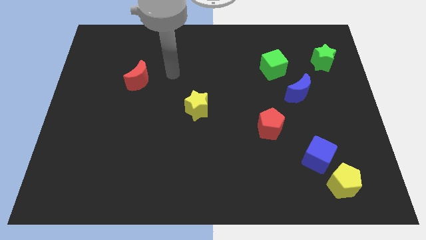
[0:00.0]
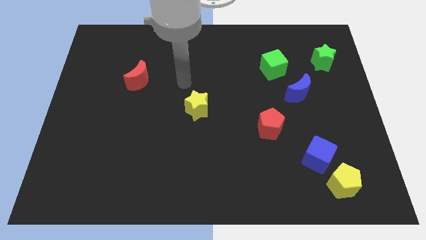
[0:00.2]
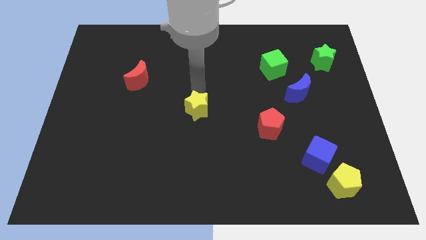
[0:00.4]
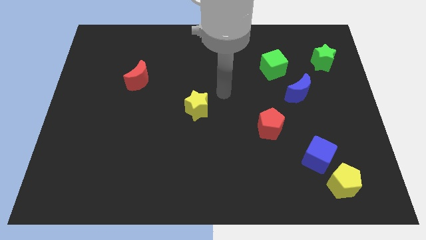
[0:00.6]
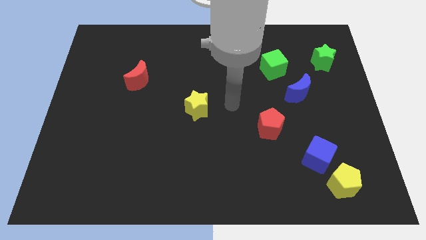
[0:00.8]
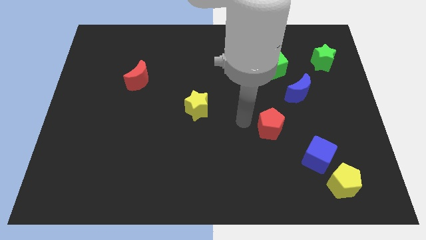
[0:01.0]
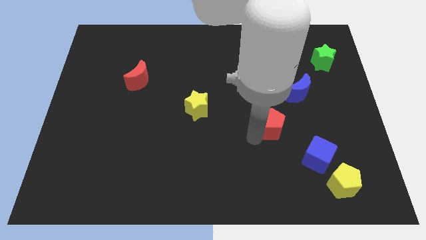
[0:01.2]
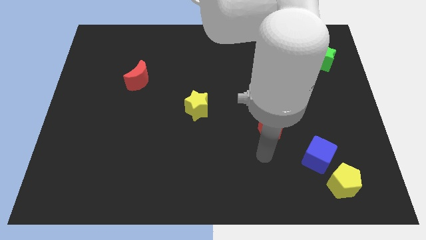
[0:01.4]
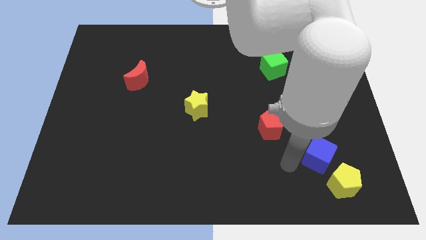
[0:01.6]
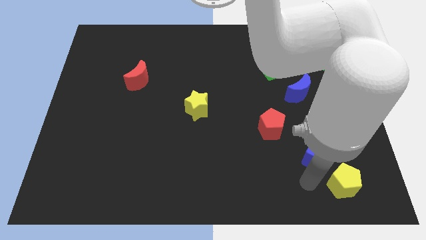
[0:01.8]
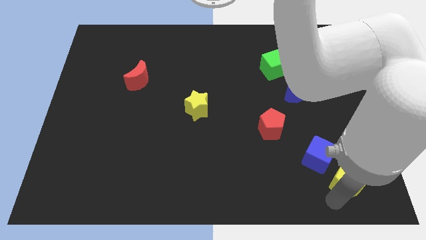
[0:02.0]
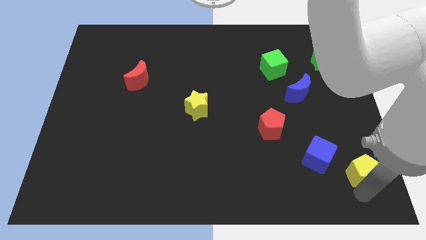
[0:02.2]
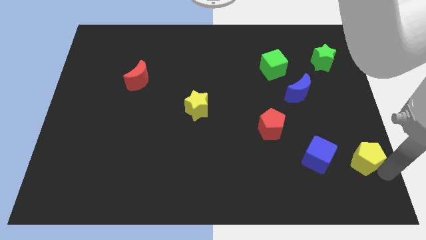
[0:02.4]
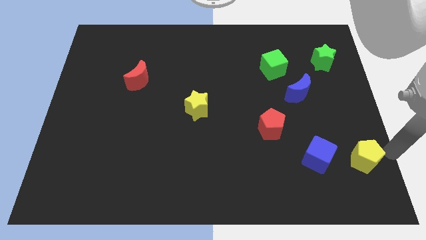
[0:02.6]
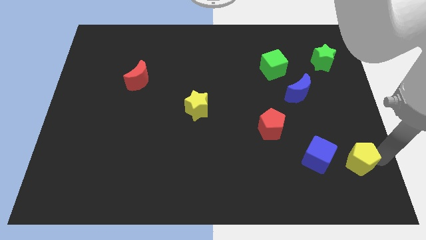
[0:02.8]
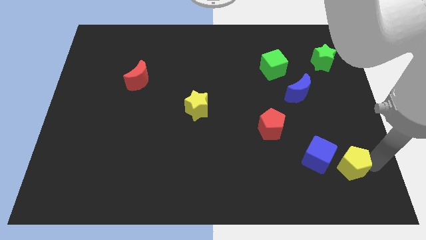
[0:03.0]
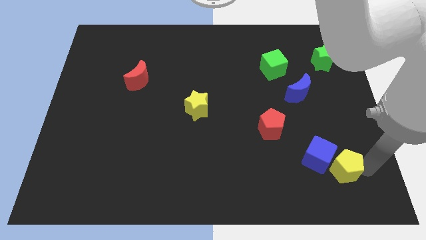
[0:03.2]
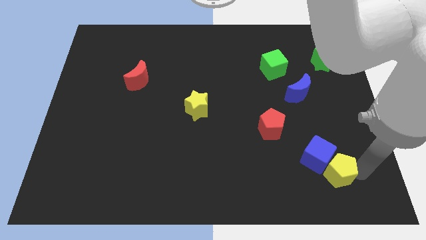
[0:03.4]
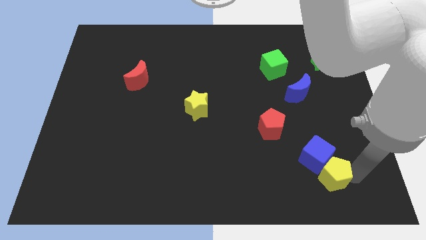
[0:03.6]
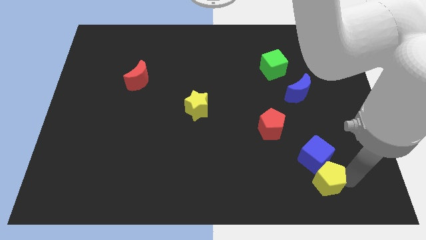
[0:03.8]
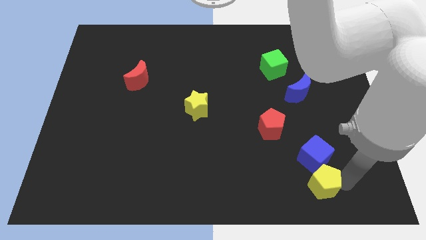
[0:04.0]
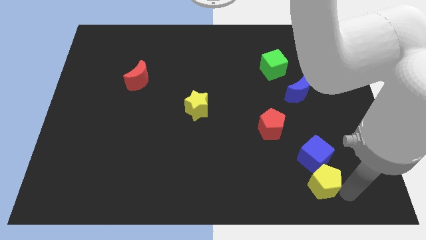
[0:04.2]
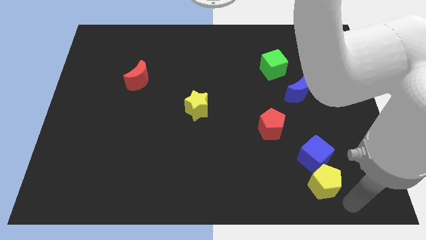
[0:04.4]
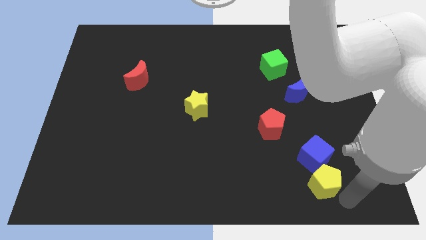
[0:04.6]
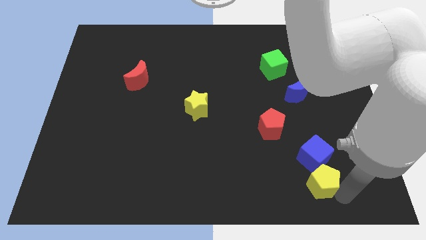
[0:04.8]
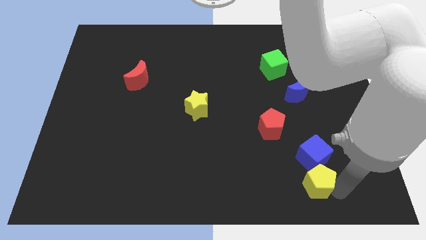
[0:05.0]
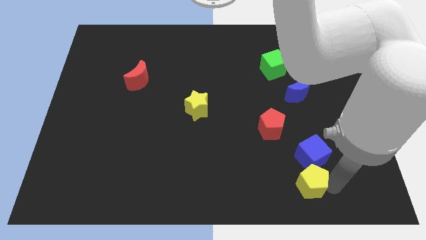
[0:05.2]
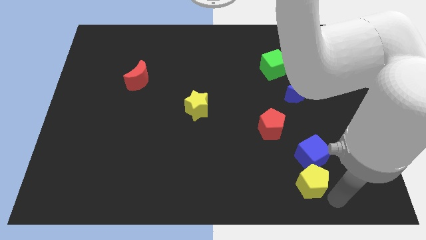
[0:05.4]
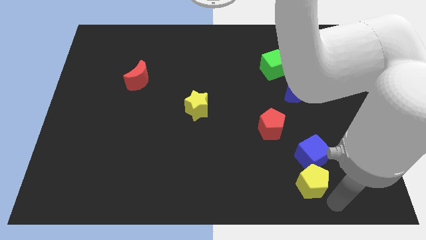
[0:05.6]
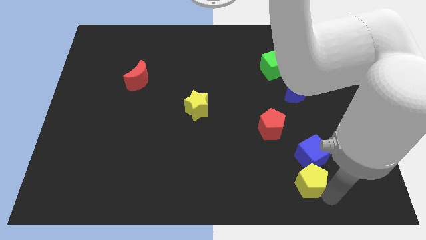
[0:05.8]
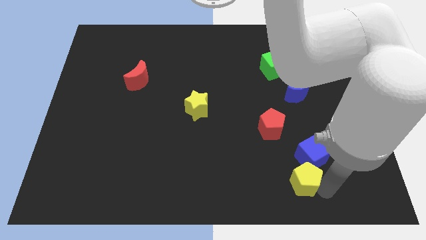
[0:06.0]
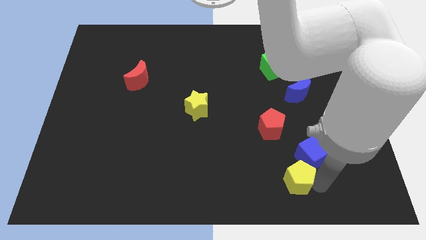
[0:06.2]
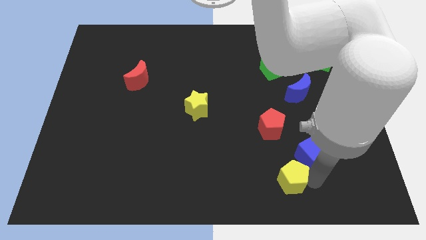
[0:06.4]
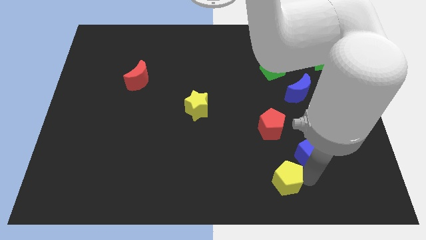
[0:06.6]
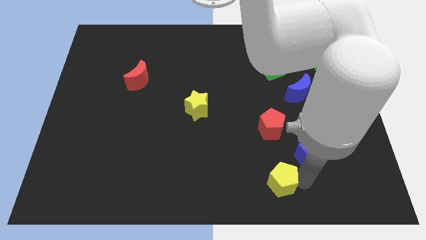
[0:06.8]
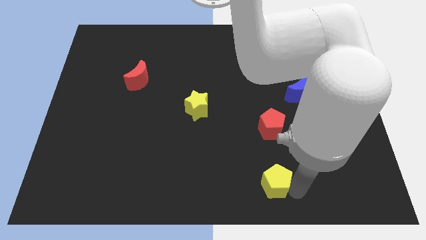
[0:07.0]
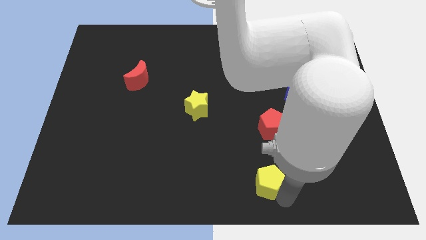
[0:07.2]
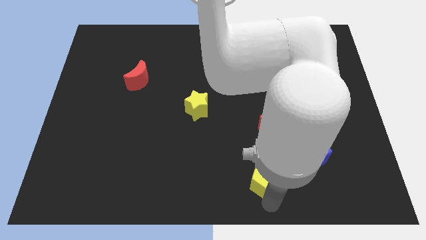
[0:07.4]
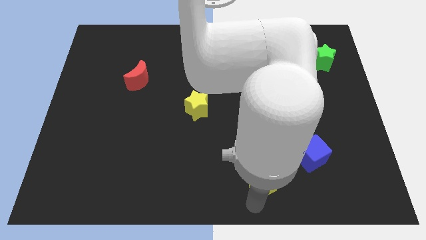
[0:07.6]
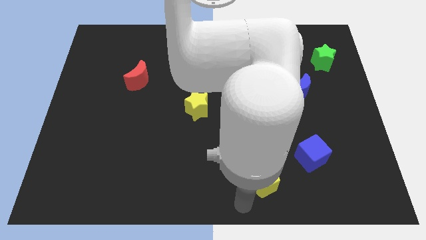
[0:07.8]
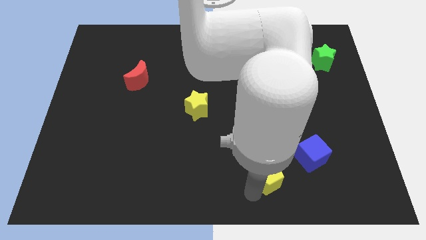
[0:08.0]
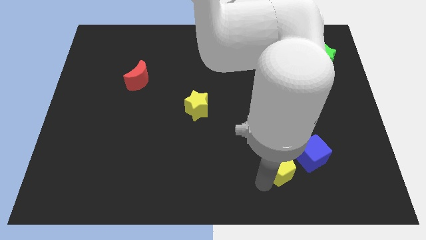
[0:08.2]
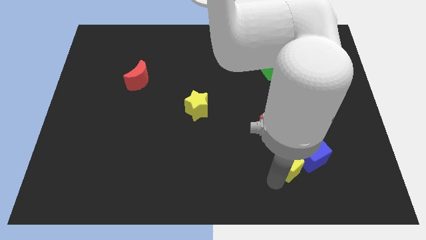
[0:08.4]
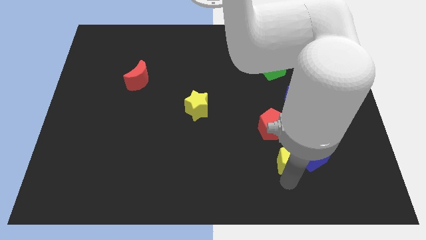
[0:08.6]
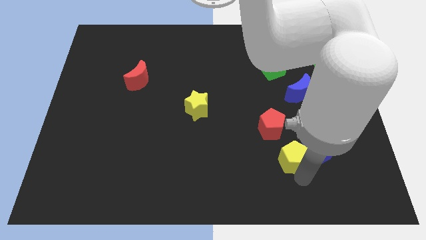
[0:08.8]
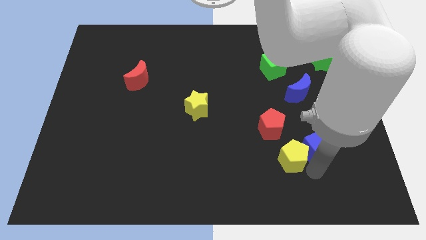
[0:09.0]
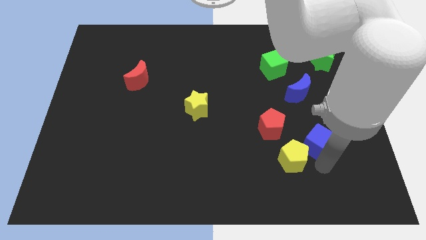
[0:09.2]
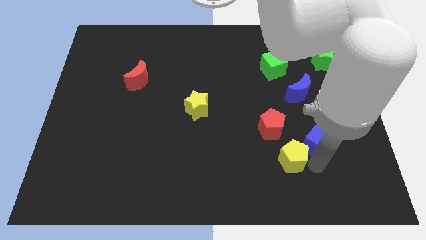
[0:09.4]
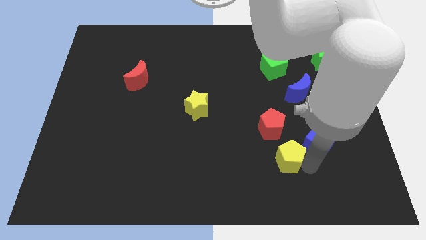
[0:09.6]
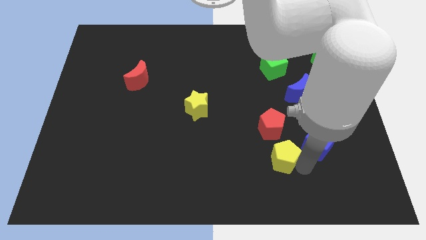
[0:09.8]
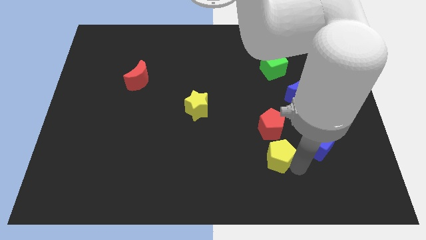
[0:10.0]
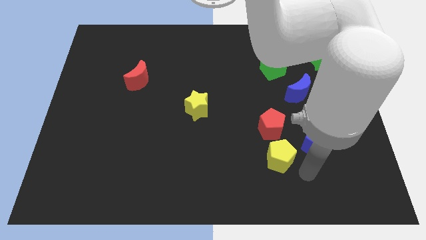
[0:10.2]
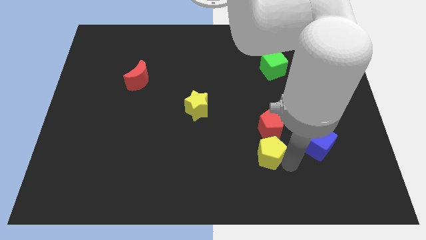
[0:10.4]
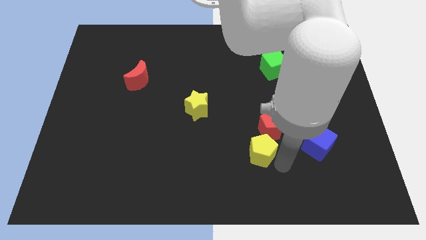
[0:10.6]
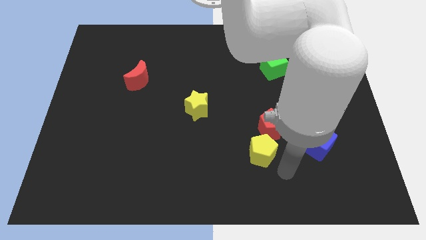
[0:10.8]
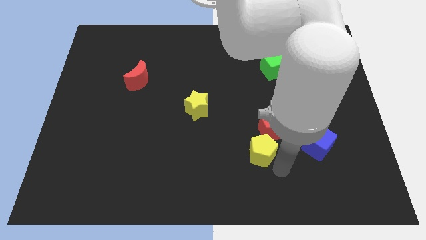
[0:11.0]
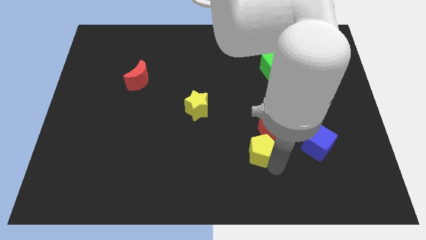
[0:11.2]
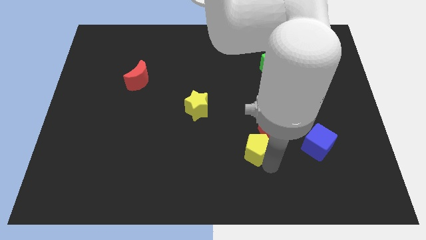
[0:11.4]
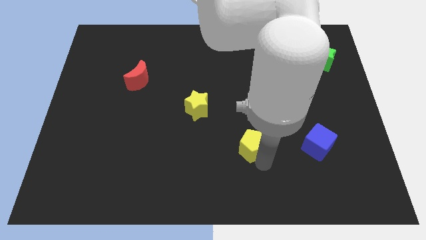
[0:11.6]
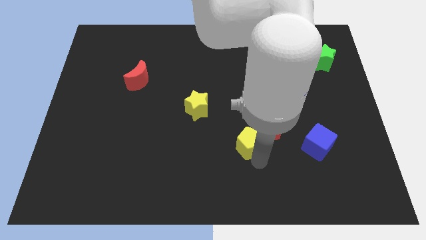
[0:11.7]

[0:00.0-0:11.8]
slide the yellow pentagon to the left of the red pentagon

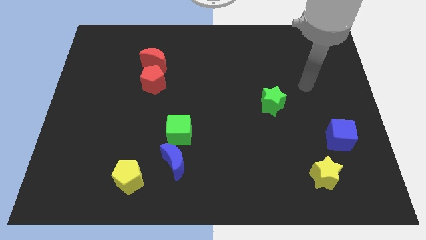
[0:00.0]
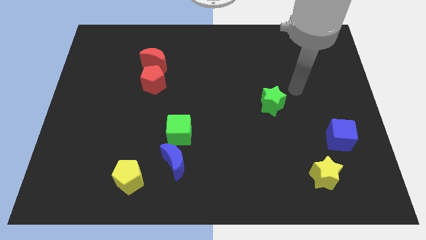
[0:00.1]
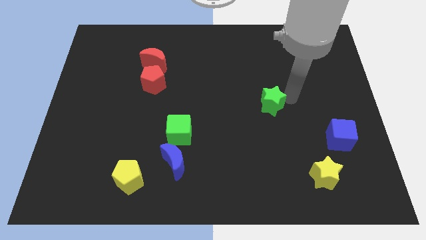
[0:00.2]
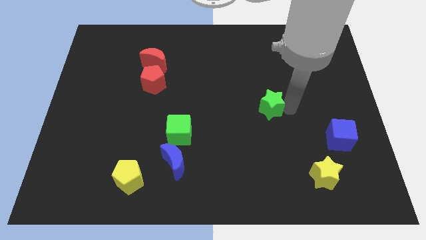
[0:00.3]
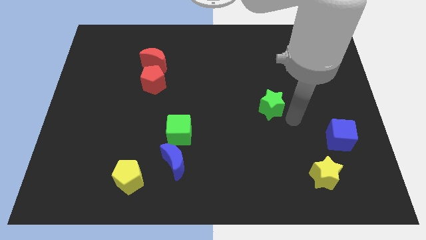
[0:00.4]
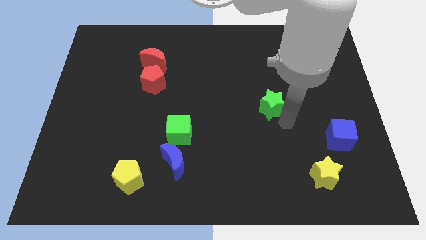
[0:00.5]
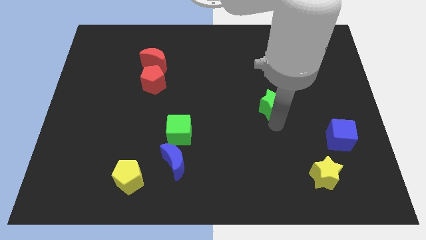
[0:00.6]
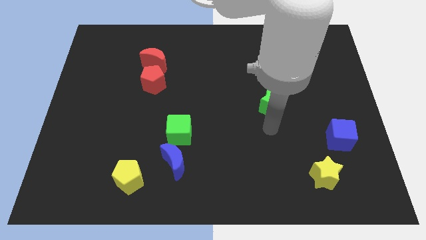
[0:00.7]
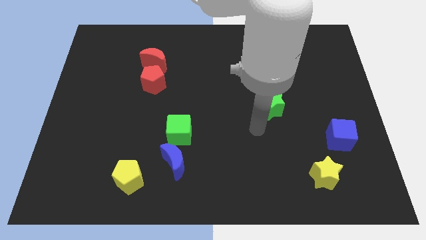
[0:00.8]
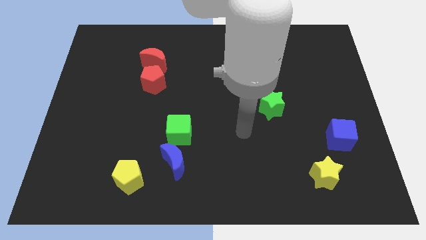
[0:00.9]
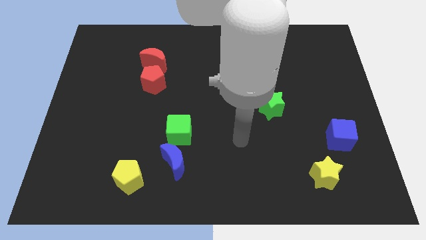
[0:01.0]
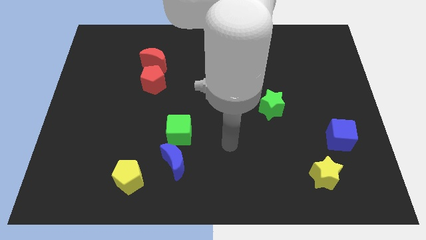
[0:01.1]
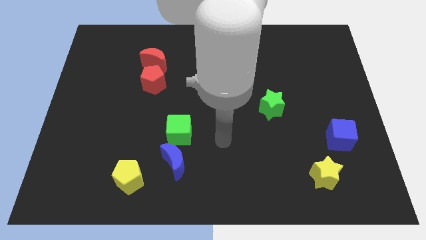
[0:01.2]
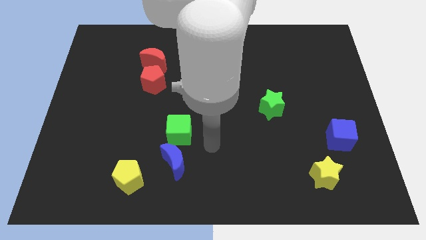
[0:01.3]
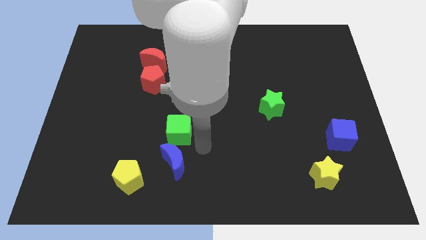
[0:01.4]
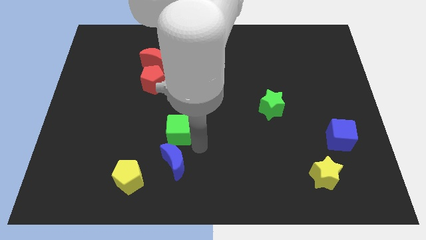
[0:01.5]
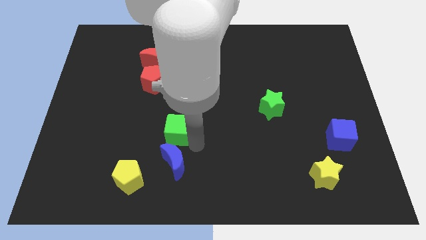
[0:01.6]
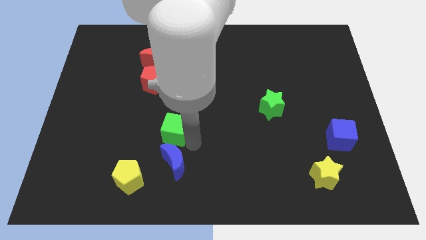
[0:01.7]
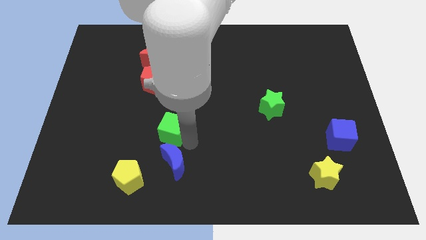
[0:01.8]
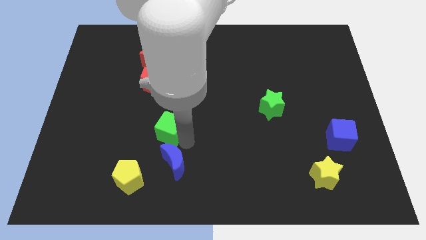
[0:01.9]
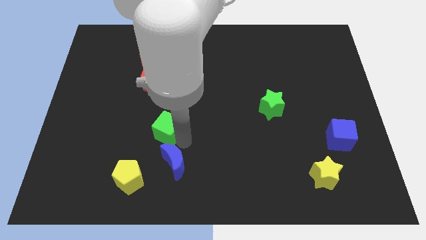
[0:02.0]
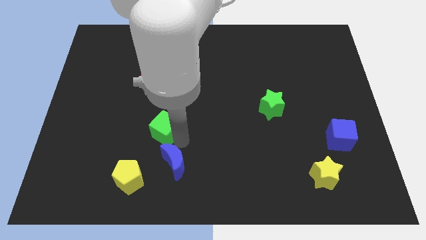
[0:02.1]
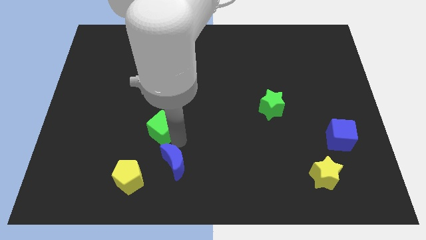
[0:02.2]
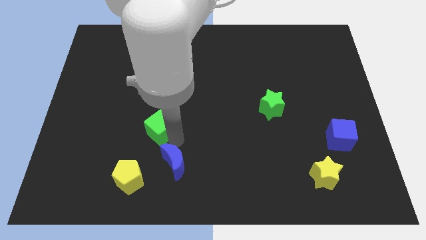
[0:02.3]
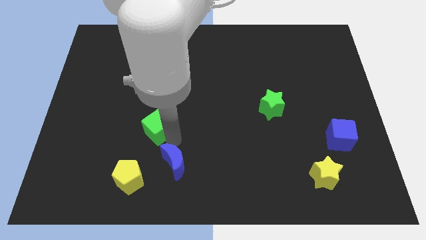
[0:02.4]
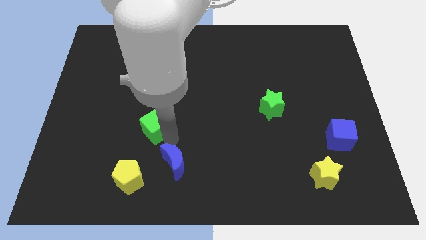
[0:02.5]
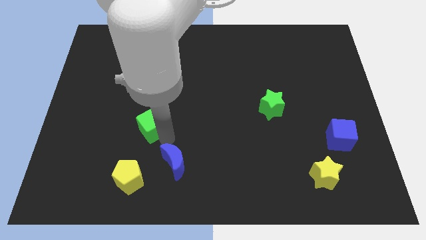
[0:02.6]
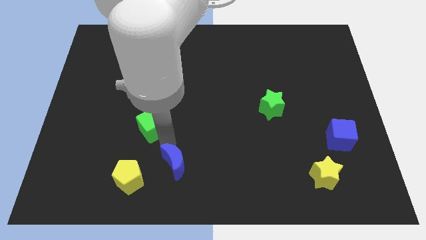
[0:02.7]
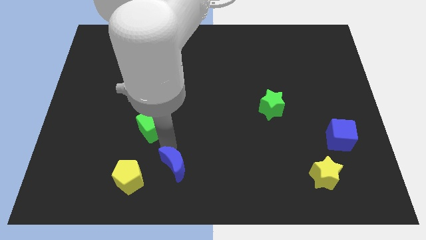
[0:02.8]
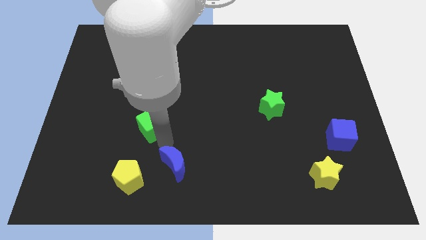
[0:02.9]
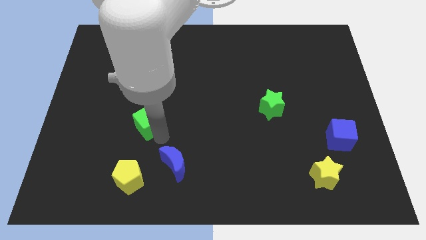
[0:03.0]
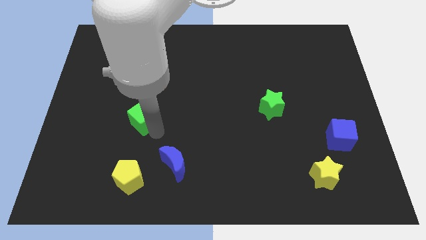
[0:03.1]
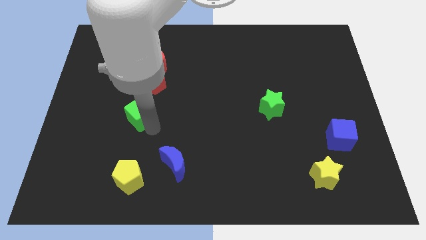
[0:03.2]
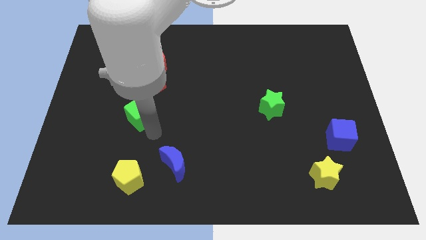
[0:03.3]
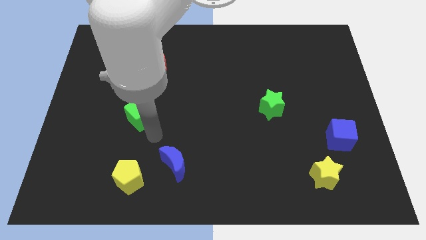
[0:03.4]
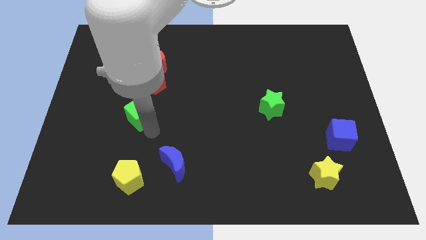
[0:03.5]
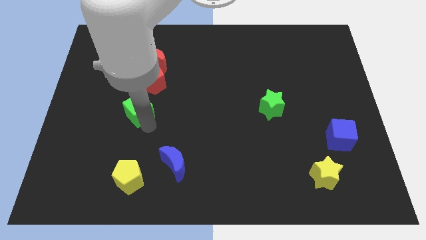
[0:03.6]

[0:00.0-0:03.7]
slide the green cube to the bottom left side of the red pentagon
